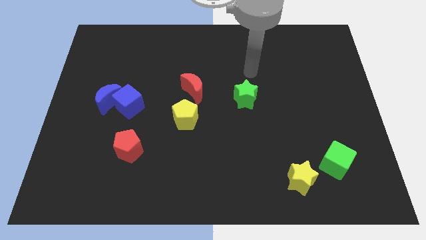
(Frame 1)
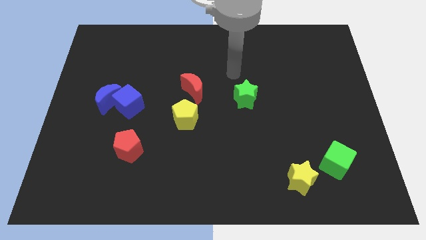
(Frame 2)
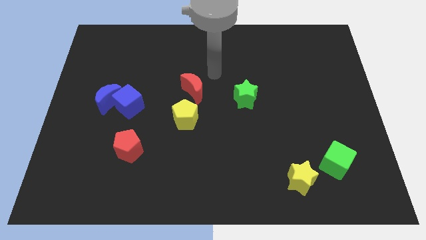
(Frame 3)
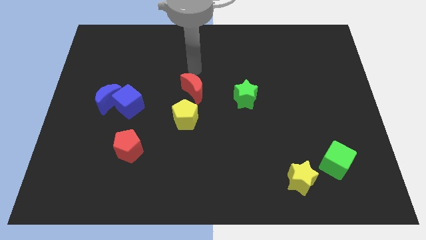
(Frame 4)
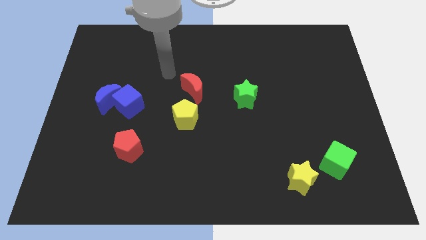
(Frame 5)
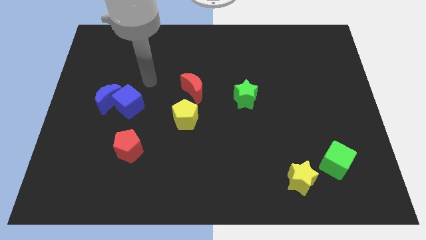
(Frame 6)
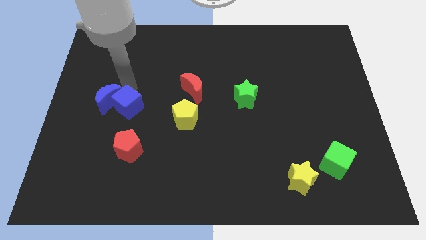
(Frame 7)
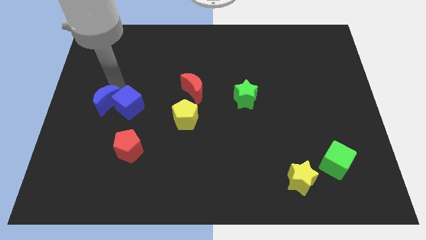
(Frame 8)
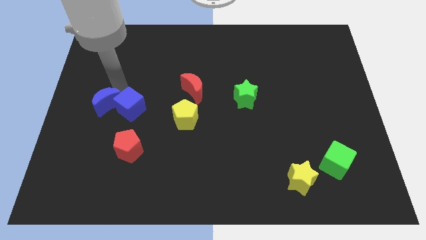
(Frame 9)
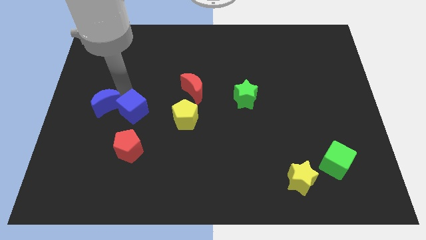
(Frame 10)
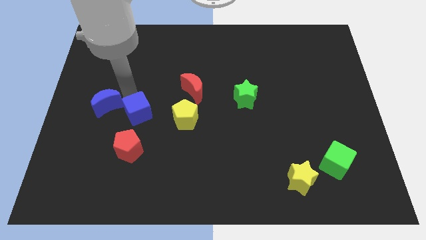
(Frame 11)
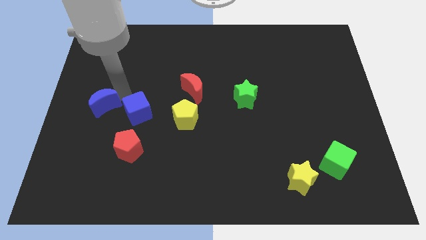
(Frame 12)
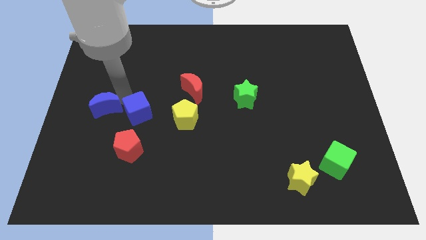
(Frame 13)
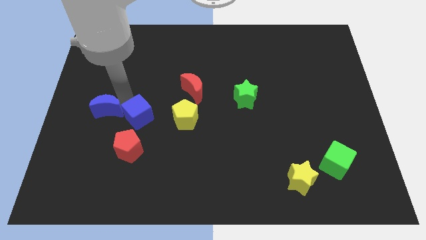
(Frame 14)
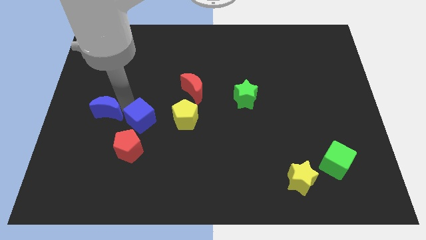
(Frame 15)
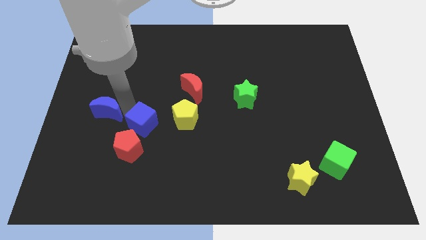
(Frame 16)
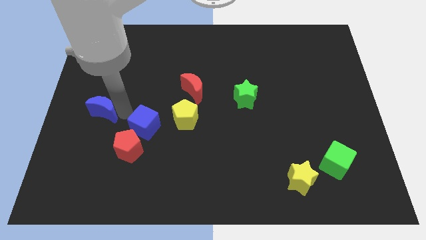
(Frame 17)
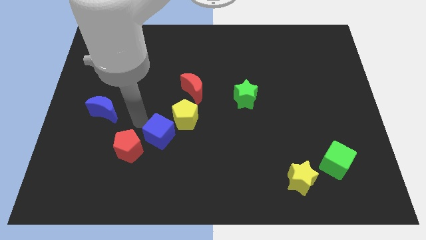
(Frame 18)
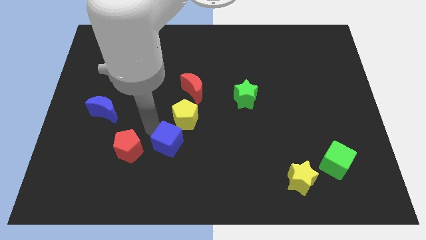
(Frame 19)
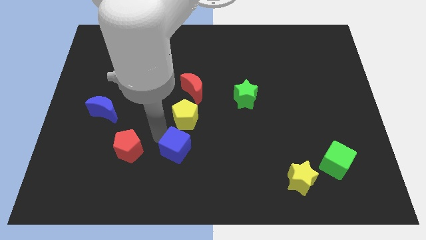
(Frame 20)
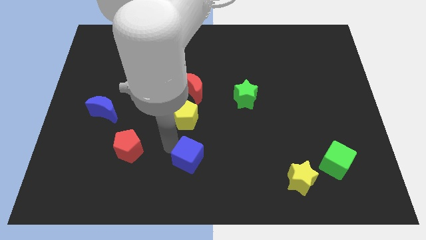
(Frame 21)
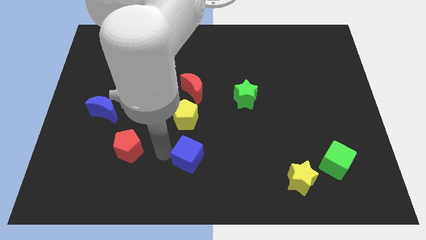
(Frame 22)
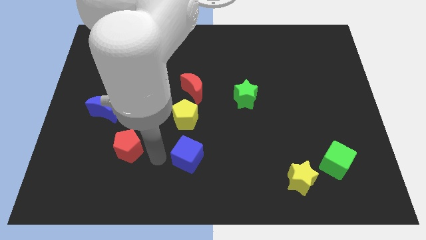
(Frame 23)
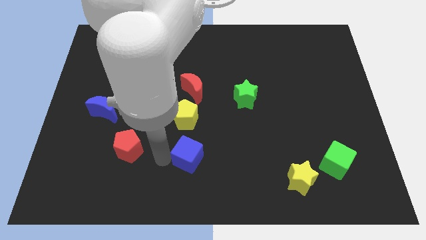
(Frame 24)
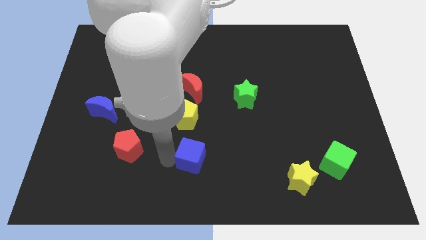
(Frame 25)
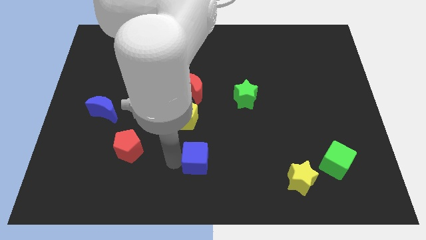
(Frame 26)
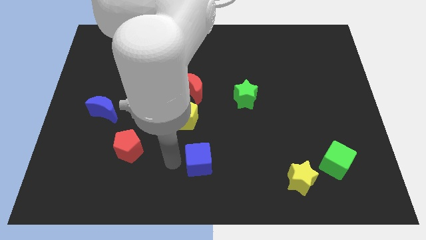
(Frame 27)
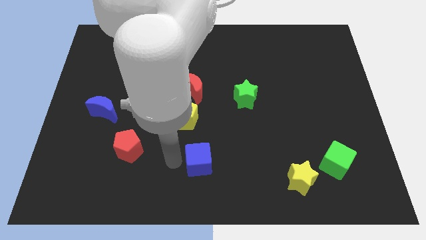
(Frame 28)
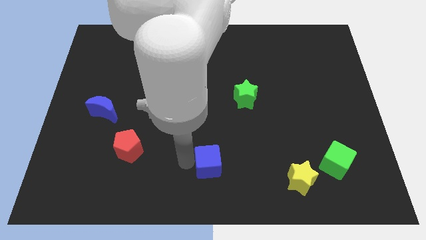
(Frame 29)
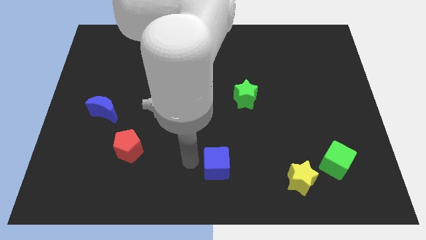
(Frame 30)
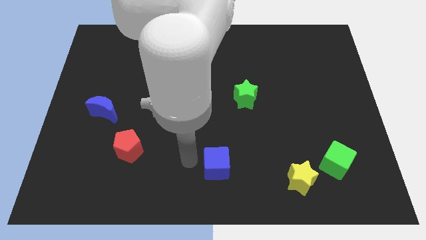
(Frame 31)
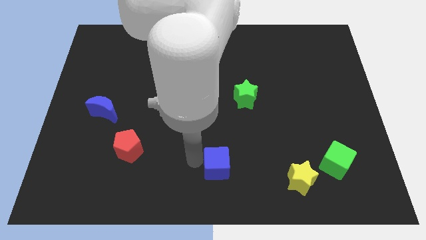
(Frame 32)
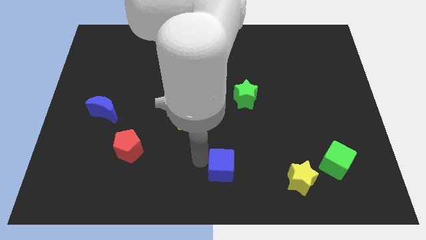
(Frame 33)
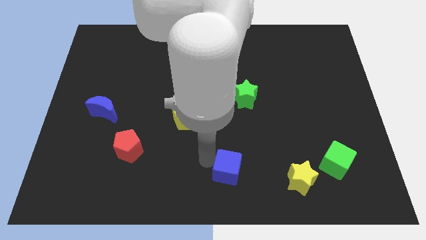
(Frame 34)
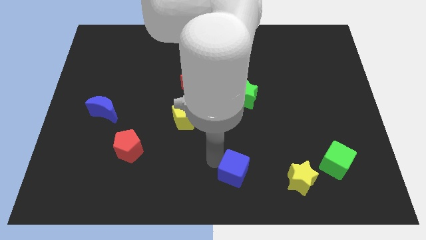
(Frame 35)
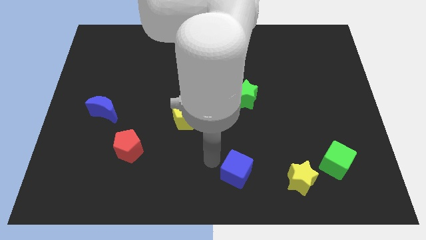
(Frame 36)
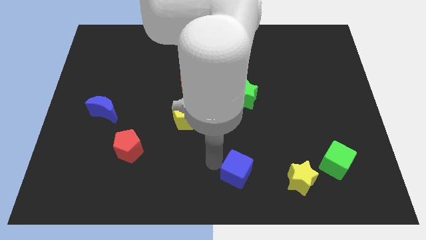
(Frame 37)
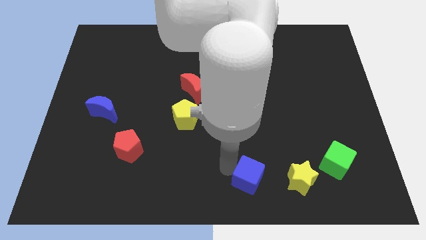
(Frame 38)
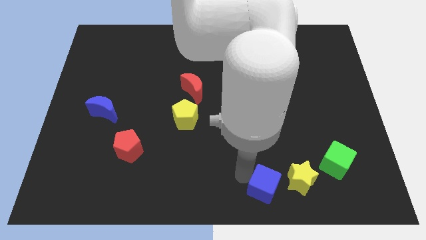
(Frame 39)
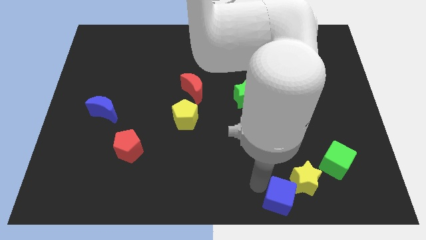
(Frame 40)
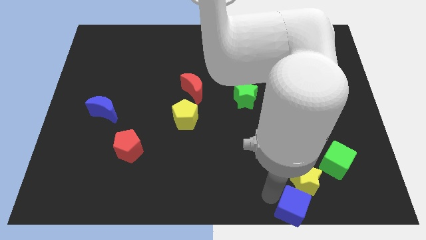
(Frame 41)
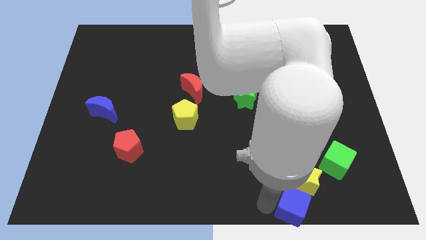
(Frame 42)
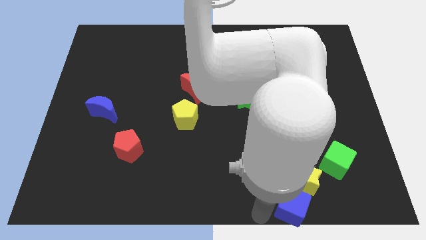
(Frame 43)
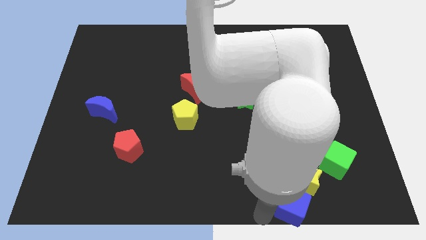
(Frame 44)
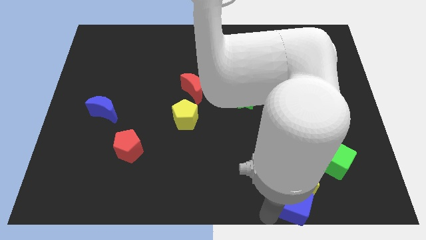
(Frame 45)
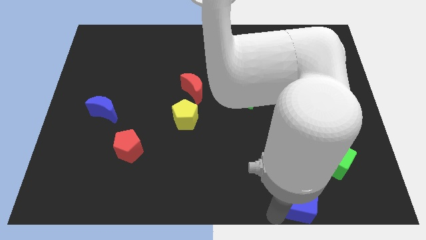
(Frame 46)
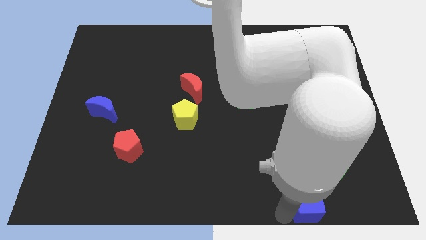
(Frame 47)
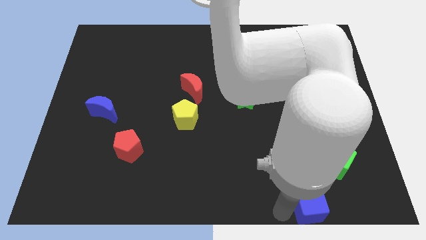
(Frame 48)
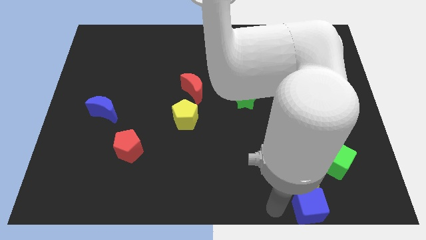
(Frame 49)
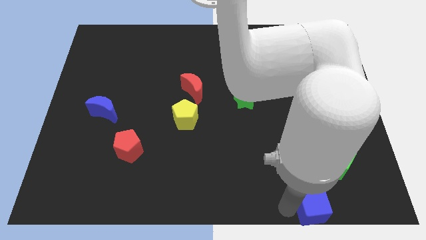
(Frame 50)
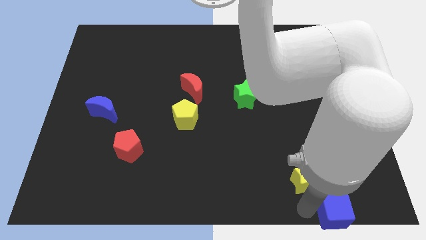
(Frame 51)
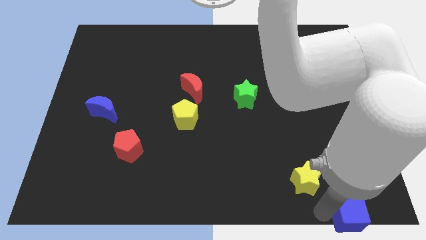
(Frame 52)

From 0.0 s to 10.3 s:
put the blue cube to the bottom right

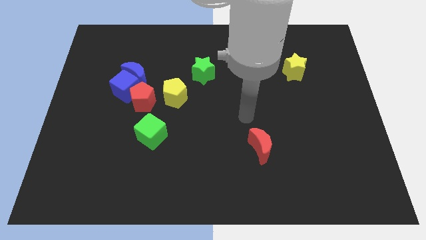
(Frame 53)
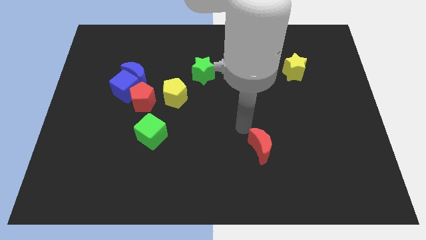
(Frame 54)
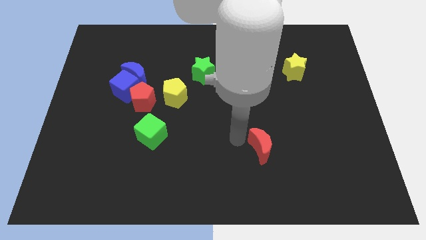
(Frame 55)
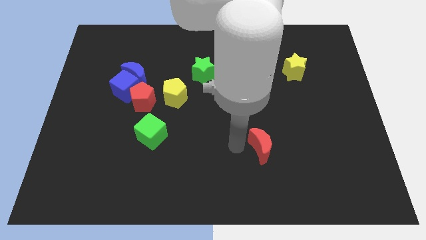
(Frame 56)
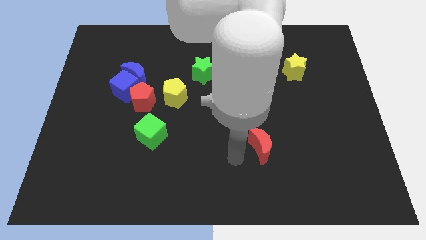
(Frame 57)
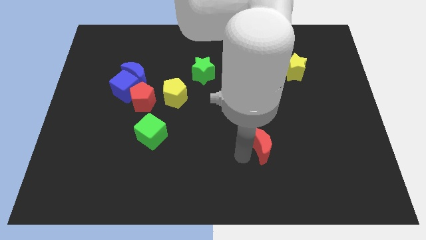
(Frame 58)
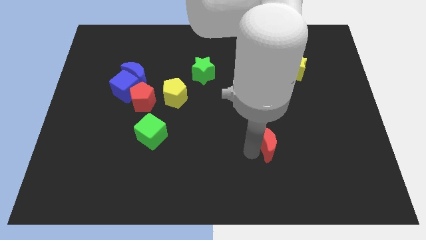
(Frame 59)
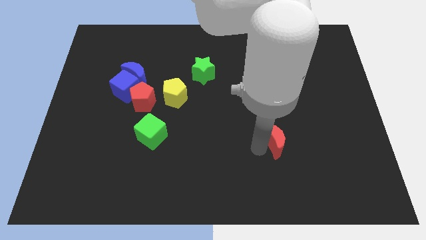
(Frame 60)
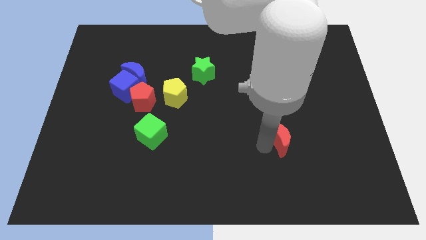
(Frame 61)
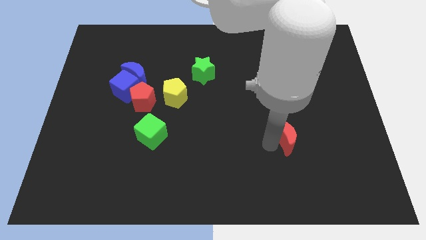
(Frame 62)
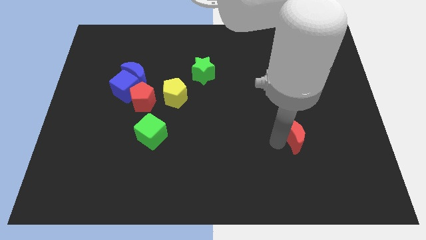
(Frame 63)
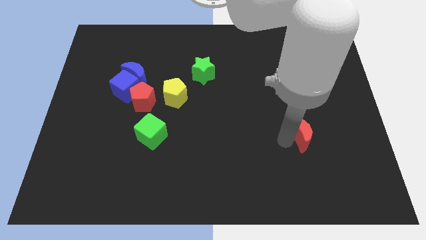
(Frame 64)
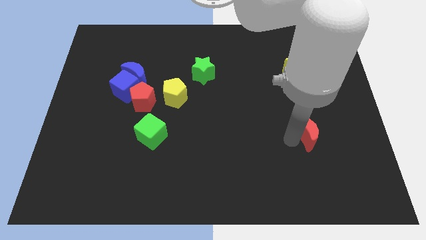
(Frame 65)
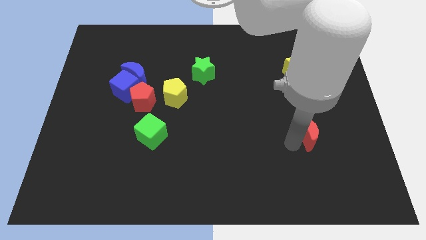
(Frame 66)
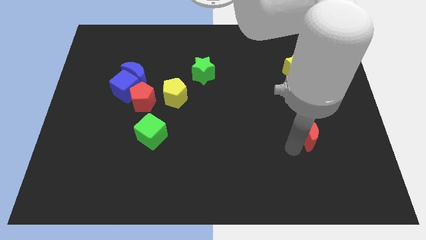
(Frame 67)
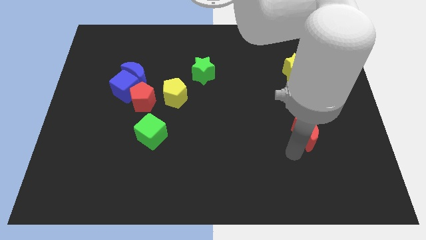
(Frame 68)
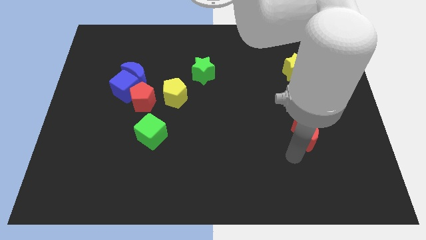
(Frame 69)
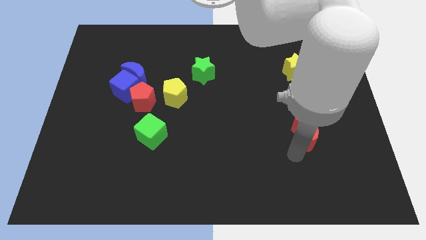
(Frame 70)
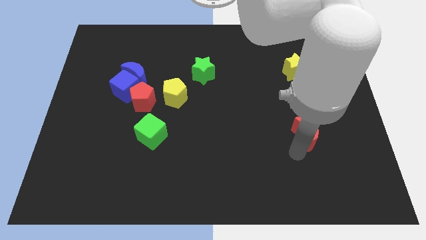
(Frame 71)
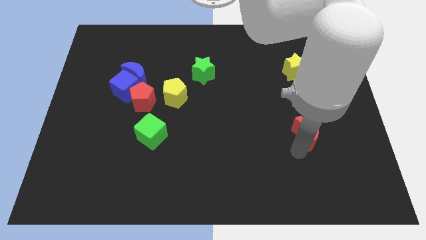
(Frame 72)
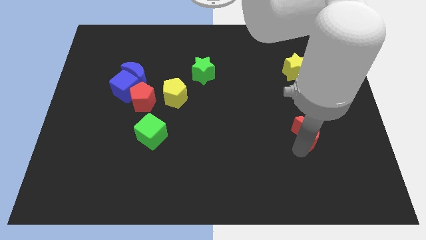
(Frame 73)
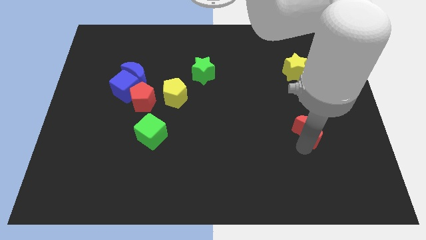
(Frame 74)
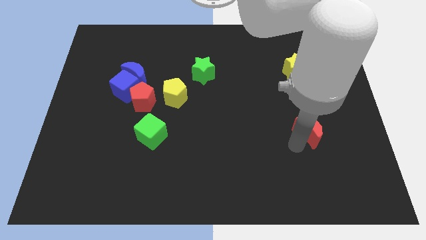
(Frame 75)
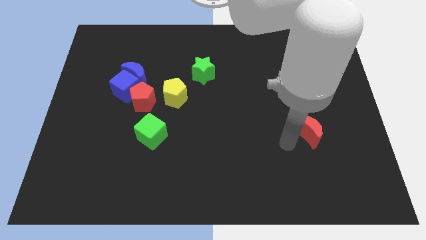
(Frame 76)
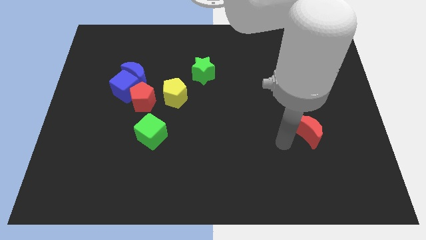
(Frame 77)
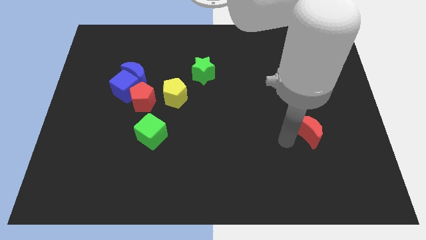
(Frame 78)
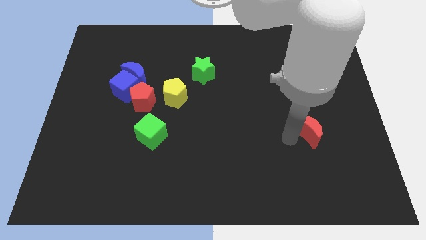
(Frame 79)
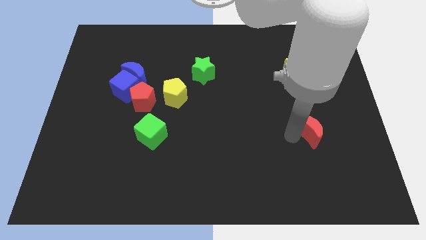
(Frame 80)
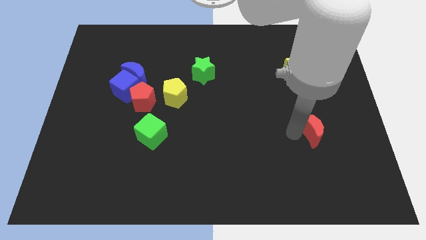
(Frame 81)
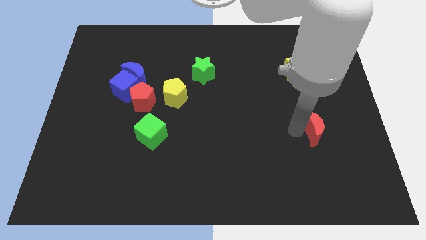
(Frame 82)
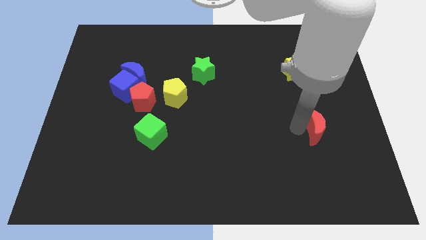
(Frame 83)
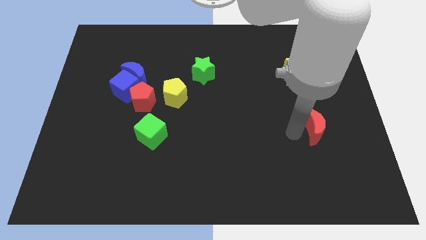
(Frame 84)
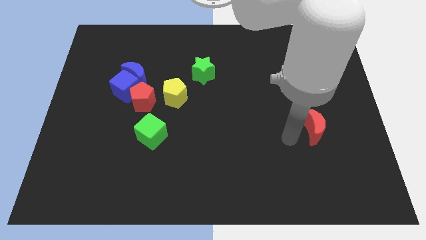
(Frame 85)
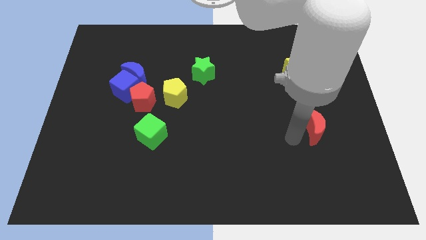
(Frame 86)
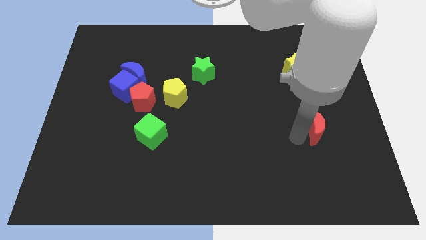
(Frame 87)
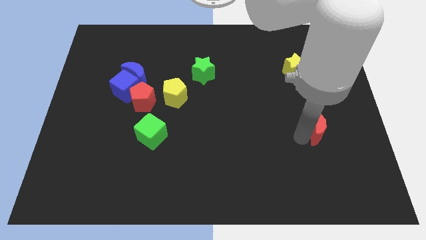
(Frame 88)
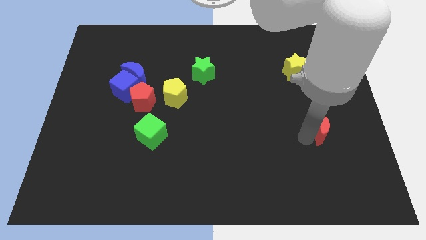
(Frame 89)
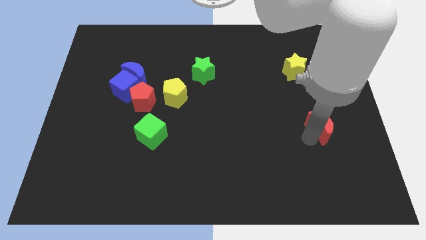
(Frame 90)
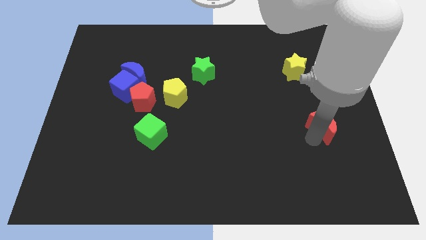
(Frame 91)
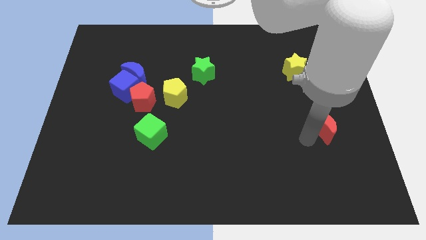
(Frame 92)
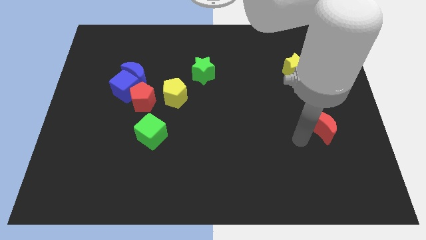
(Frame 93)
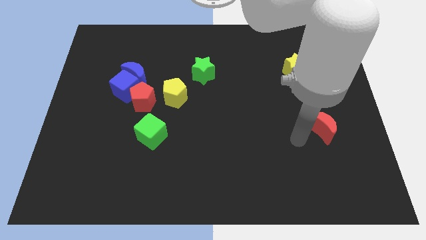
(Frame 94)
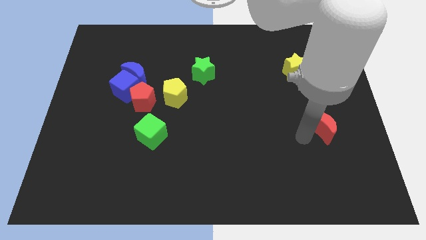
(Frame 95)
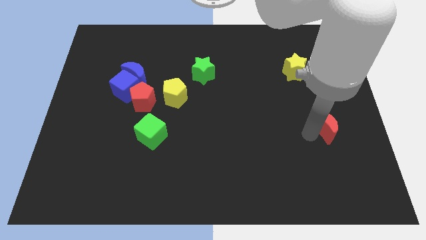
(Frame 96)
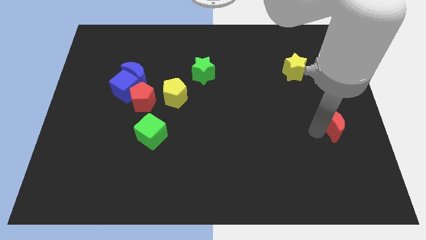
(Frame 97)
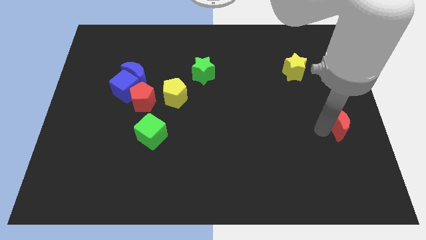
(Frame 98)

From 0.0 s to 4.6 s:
push the red moon to the right side of the board
